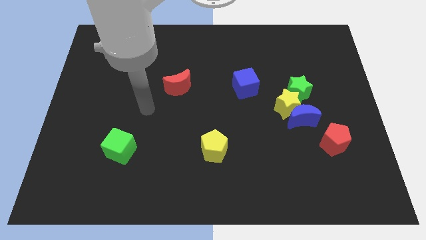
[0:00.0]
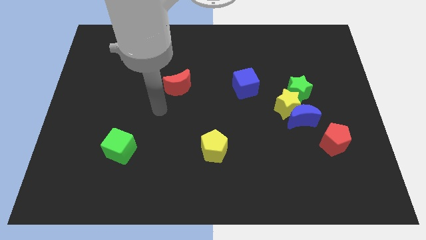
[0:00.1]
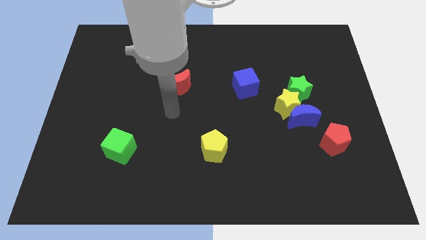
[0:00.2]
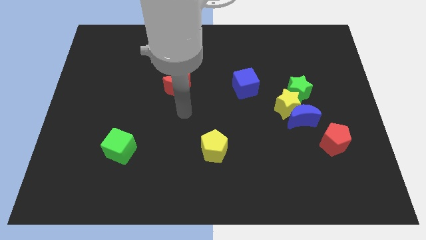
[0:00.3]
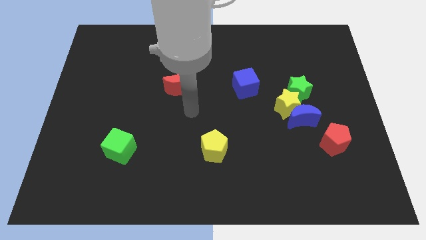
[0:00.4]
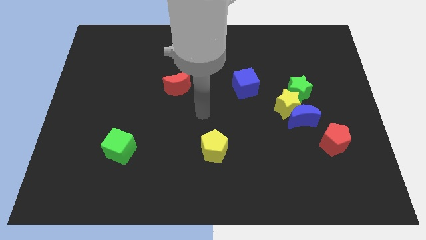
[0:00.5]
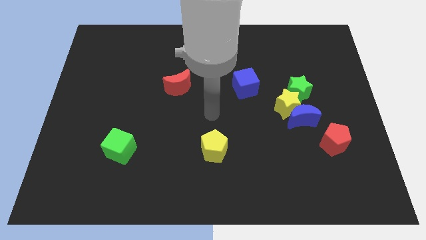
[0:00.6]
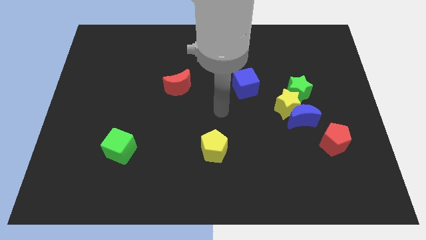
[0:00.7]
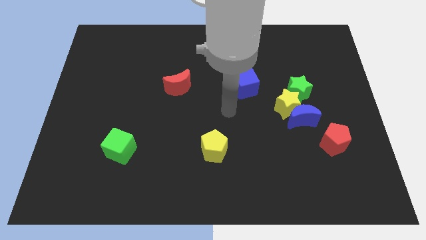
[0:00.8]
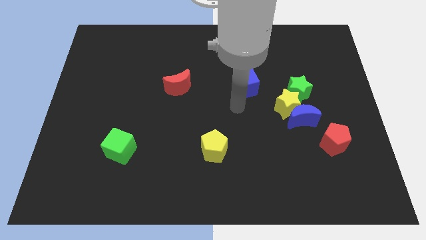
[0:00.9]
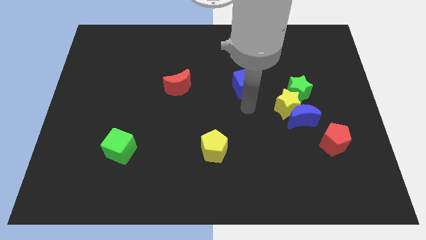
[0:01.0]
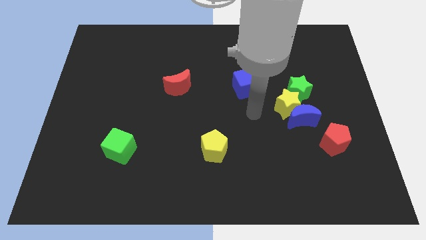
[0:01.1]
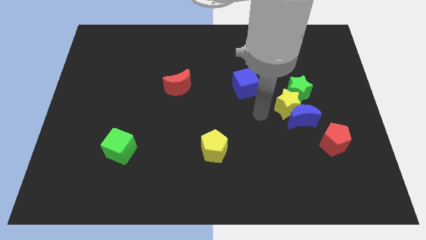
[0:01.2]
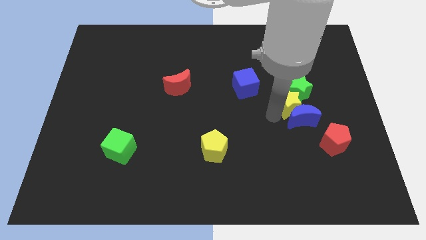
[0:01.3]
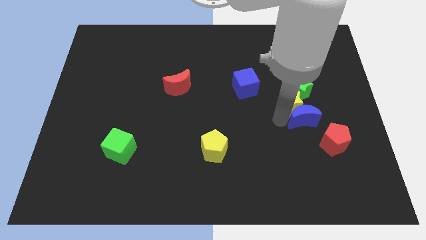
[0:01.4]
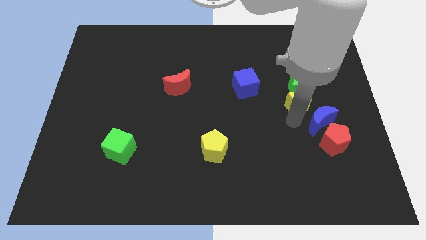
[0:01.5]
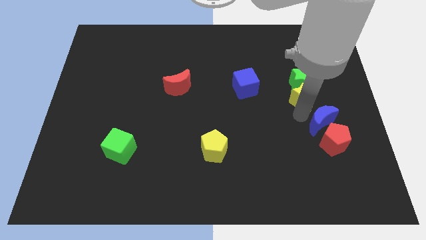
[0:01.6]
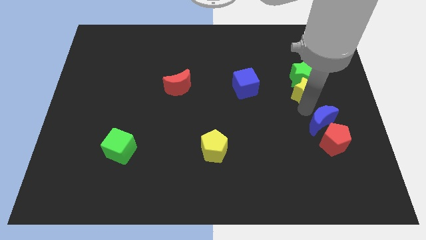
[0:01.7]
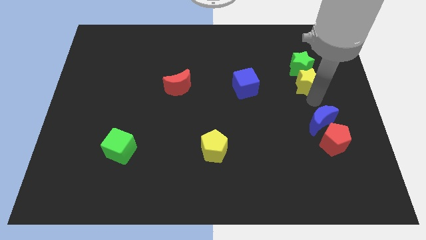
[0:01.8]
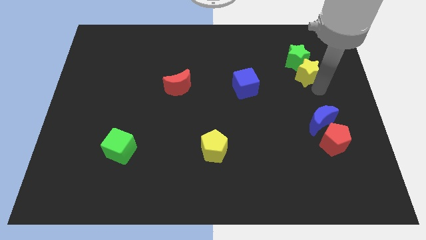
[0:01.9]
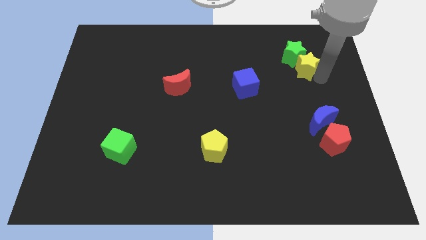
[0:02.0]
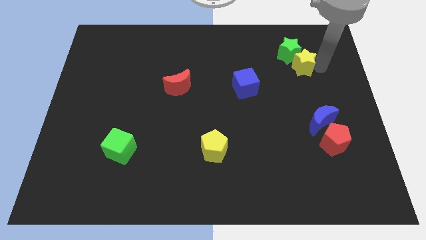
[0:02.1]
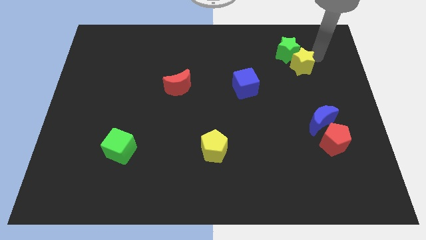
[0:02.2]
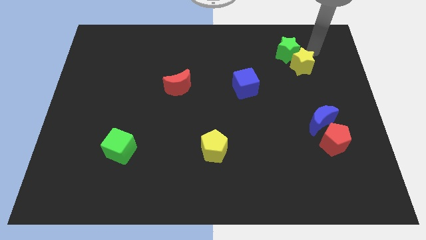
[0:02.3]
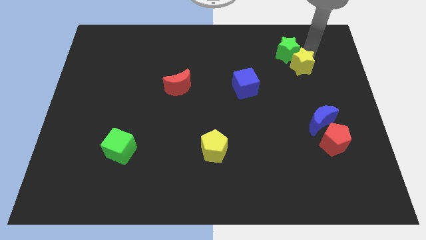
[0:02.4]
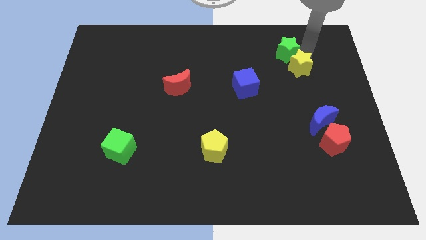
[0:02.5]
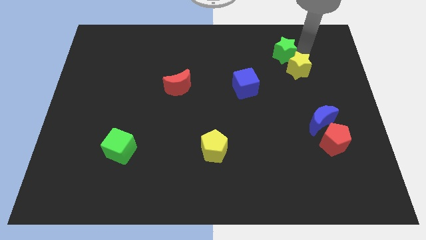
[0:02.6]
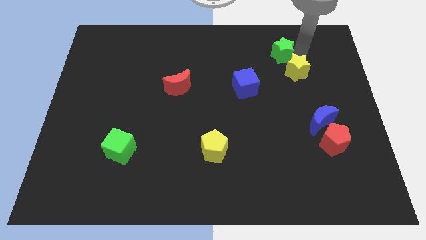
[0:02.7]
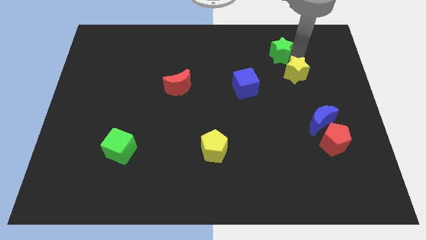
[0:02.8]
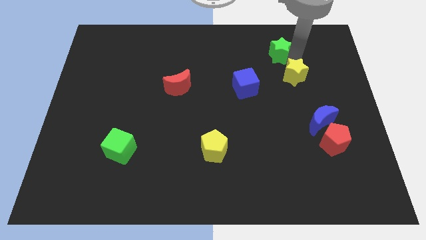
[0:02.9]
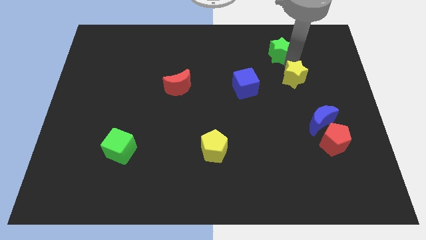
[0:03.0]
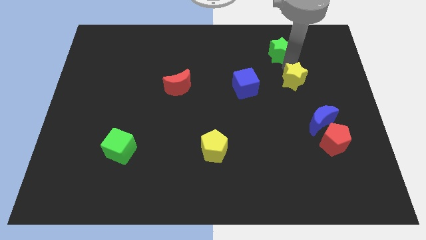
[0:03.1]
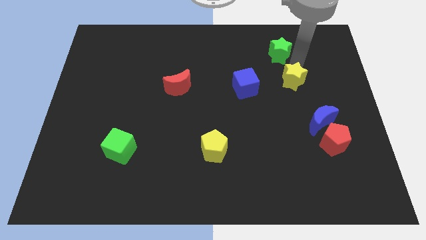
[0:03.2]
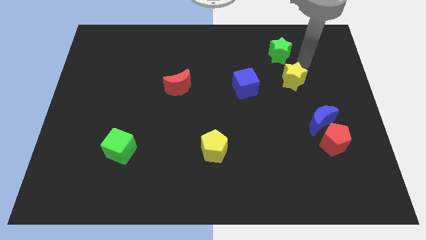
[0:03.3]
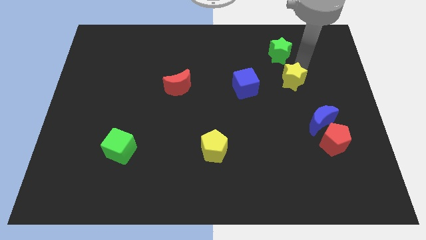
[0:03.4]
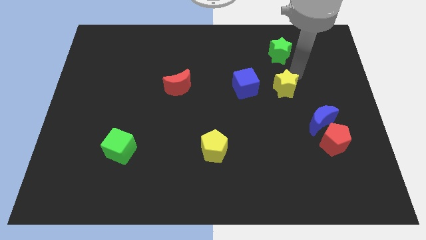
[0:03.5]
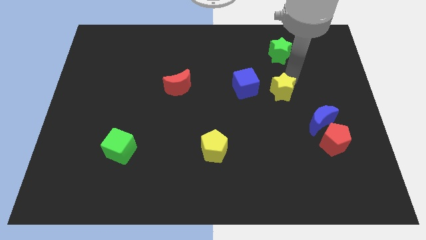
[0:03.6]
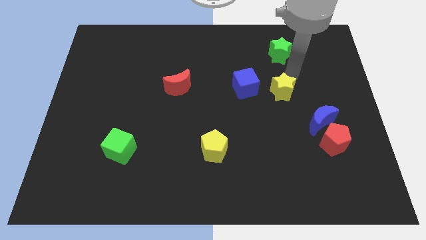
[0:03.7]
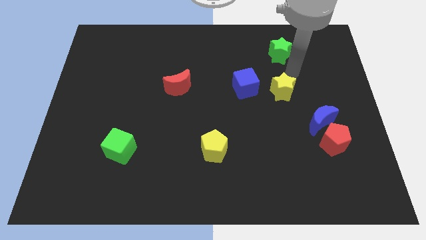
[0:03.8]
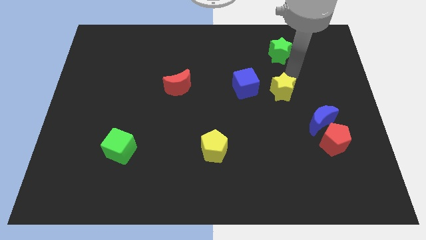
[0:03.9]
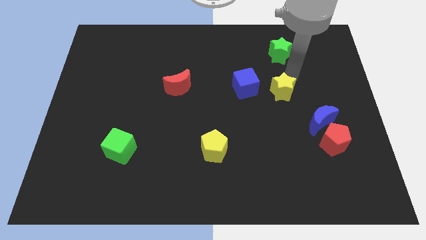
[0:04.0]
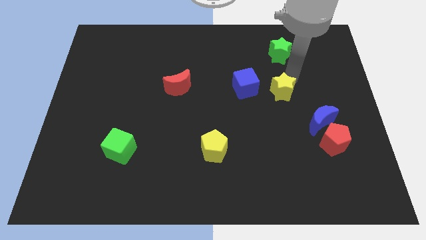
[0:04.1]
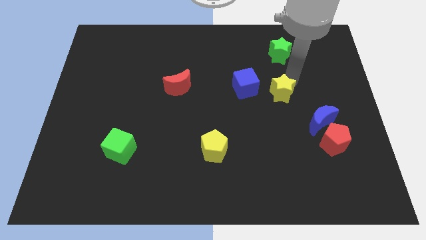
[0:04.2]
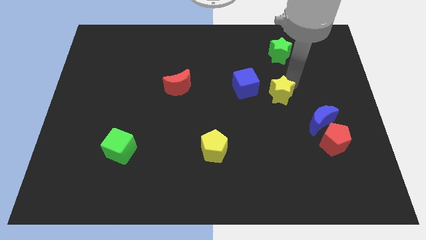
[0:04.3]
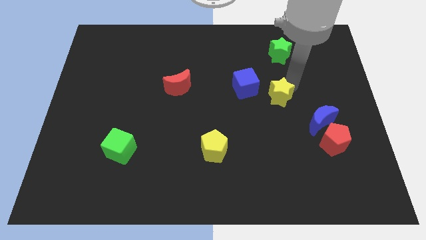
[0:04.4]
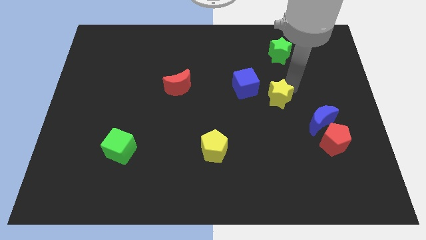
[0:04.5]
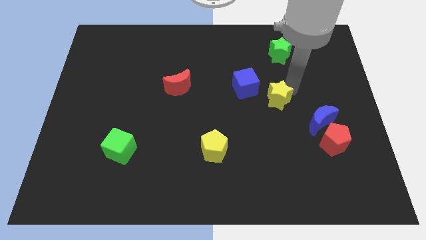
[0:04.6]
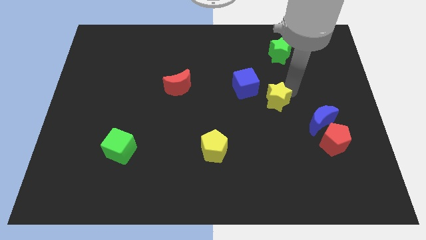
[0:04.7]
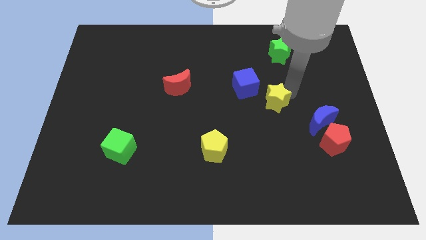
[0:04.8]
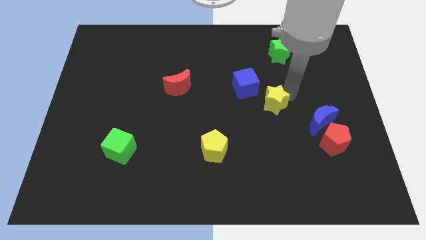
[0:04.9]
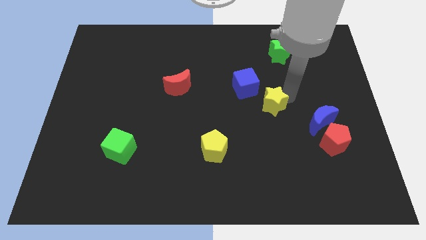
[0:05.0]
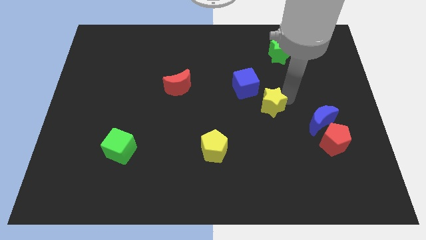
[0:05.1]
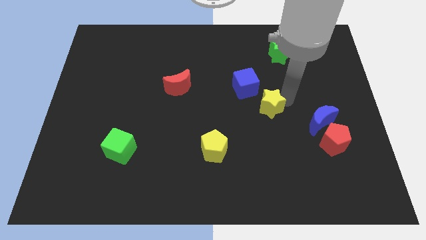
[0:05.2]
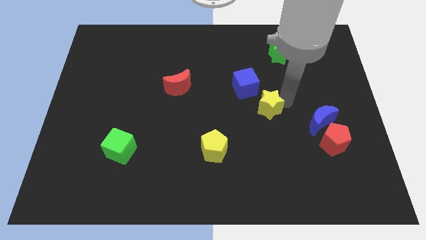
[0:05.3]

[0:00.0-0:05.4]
separate the yellow star from the blue moon and green star

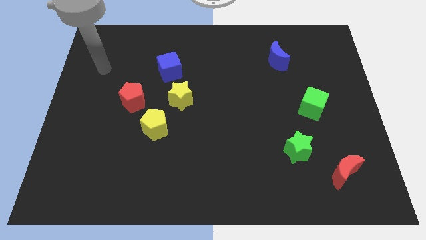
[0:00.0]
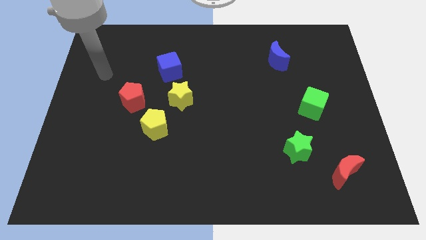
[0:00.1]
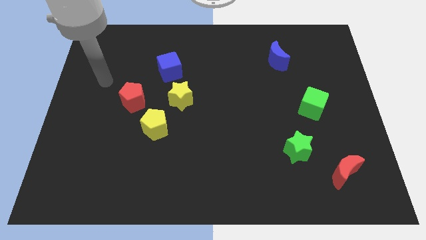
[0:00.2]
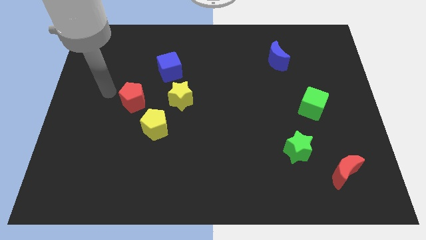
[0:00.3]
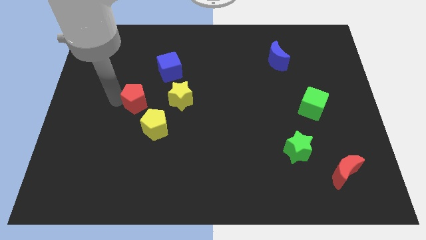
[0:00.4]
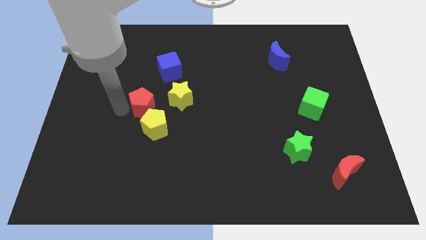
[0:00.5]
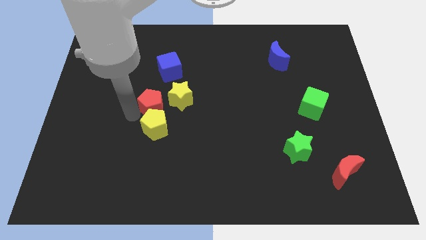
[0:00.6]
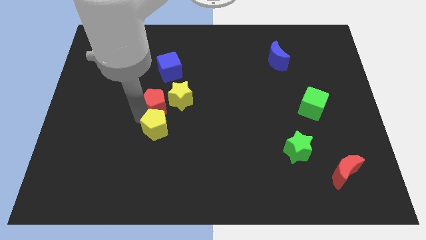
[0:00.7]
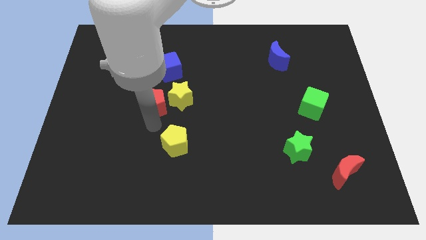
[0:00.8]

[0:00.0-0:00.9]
move the red pentagon away from the yellow pentagon

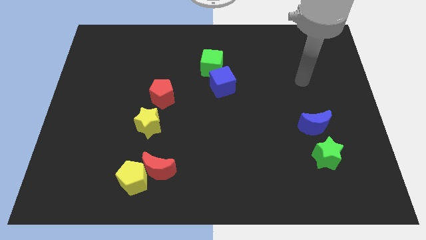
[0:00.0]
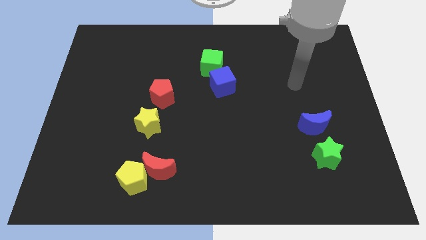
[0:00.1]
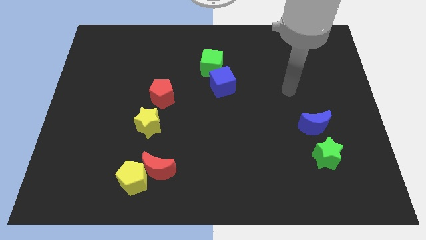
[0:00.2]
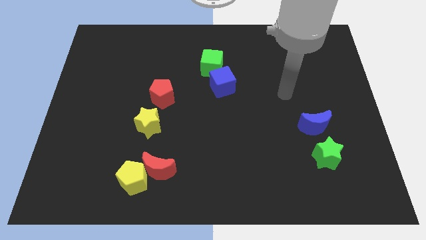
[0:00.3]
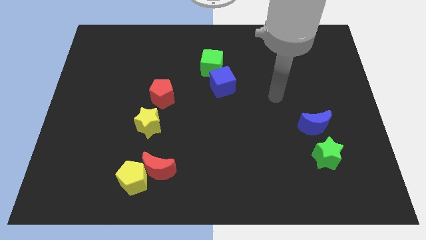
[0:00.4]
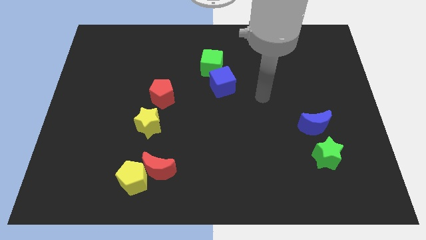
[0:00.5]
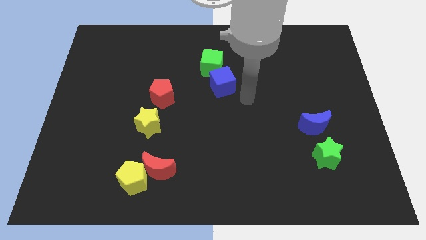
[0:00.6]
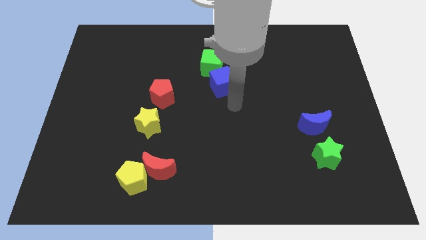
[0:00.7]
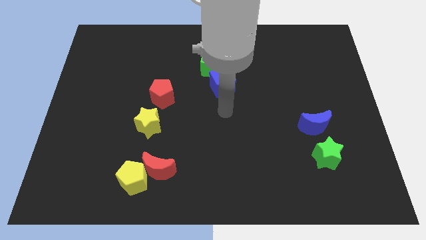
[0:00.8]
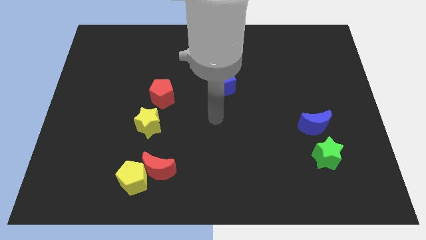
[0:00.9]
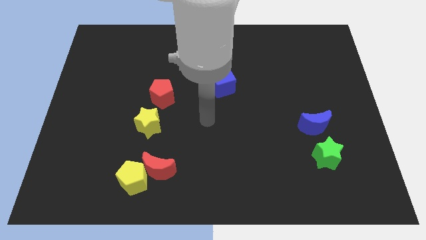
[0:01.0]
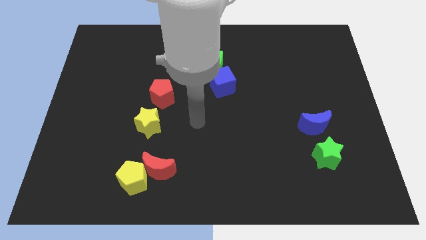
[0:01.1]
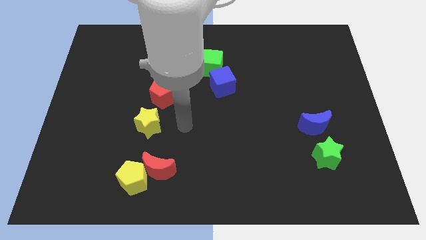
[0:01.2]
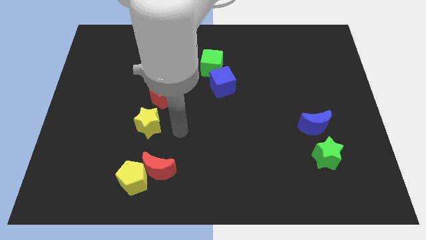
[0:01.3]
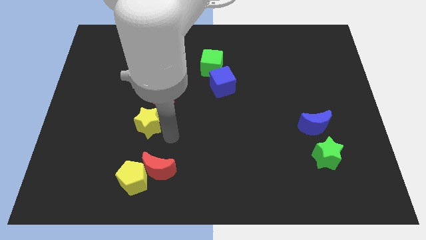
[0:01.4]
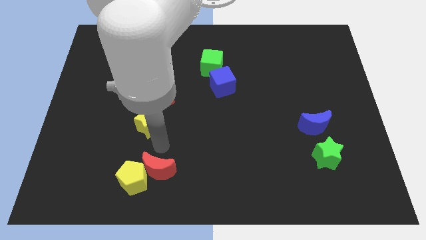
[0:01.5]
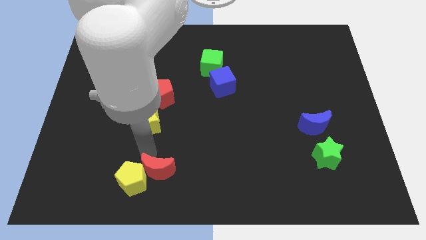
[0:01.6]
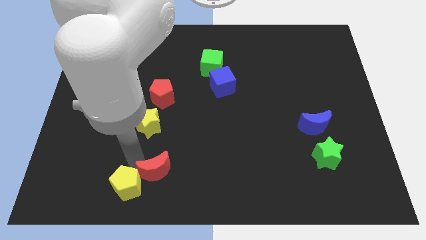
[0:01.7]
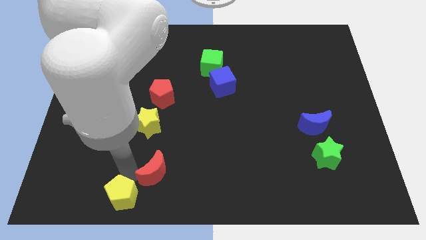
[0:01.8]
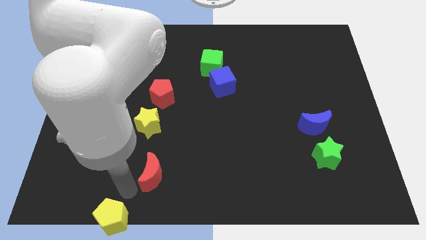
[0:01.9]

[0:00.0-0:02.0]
move the red moon away from the yellow pentagon

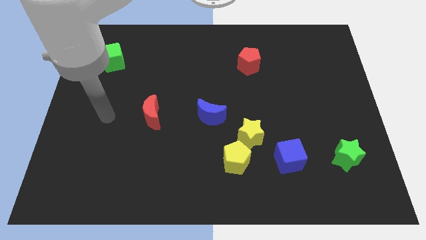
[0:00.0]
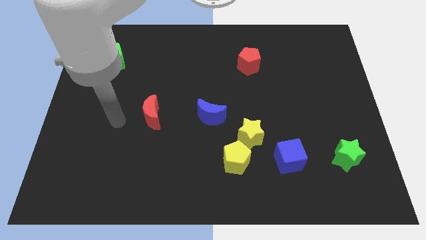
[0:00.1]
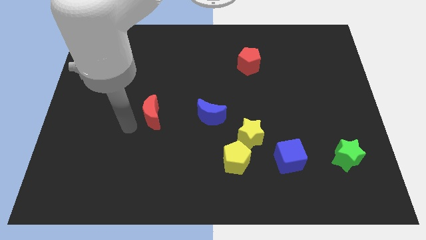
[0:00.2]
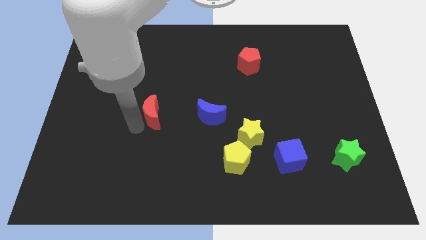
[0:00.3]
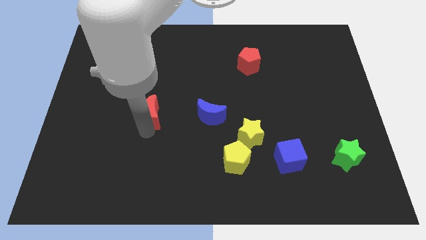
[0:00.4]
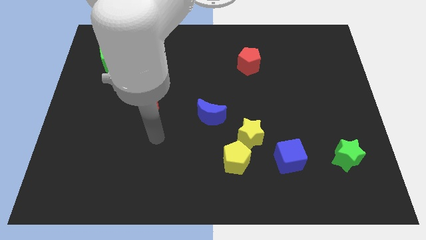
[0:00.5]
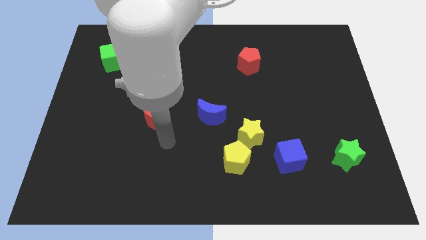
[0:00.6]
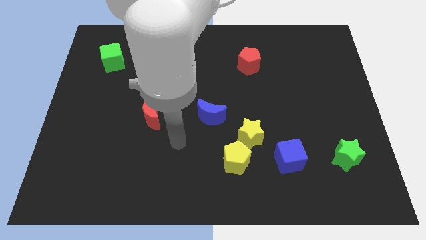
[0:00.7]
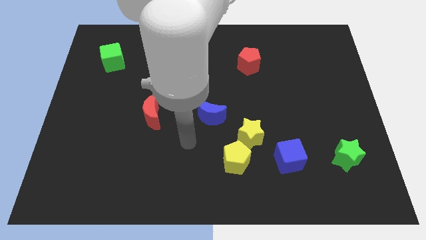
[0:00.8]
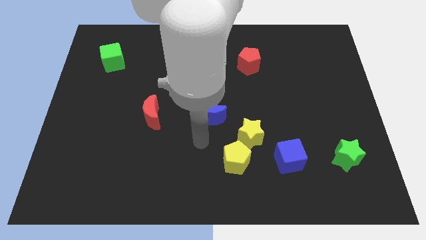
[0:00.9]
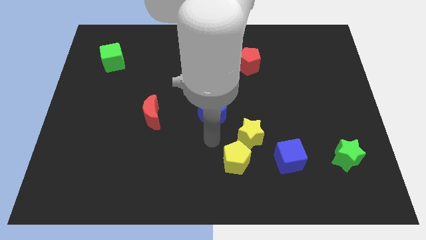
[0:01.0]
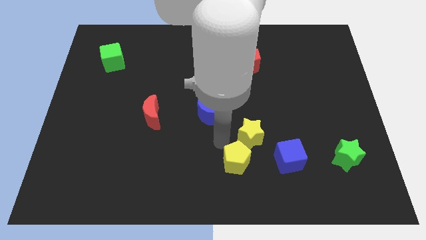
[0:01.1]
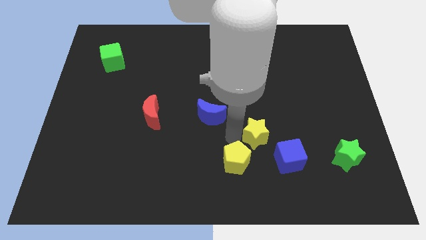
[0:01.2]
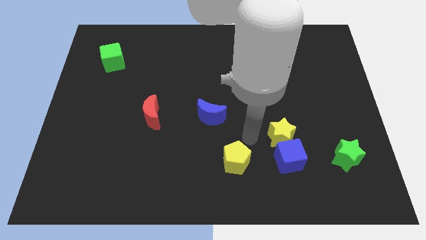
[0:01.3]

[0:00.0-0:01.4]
separate the yellow pentagon from the yellow star
